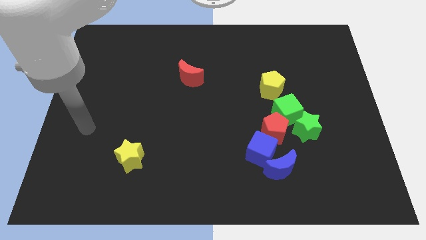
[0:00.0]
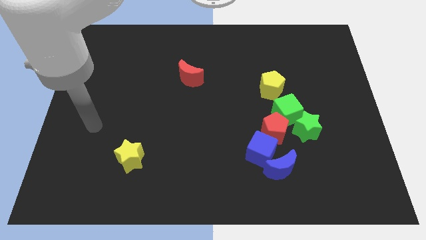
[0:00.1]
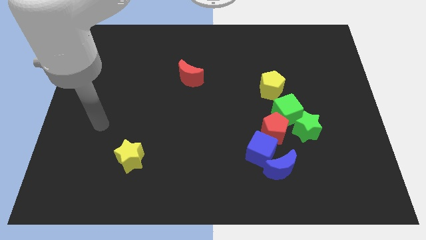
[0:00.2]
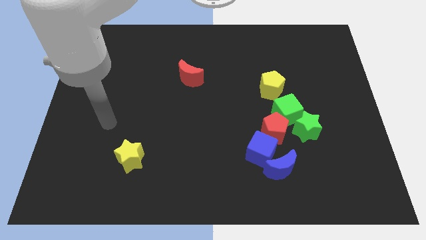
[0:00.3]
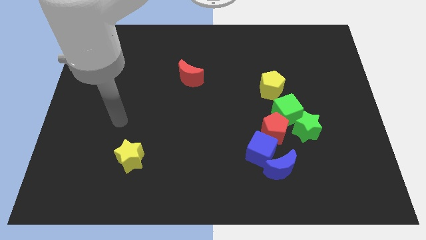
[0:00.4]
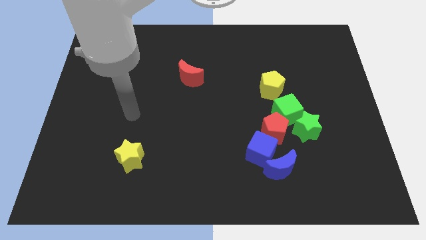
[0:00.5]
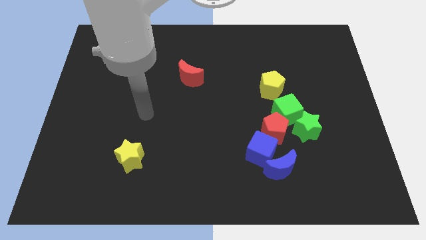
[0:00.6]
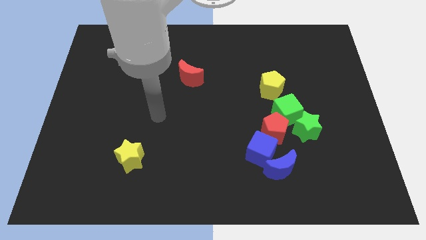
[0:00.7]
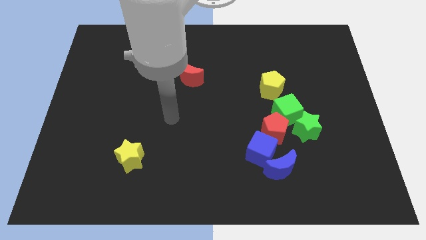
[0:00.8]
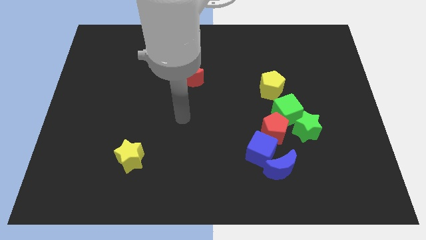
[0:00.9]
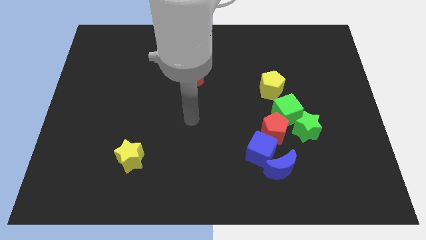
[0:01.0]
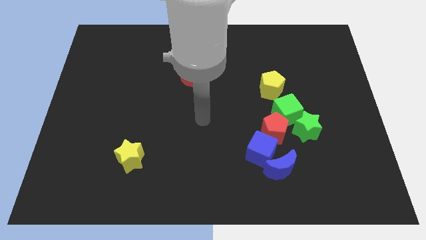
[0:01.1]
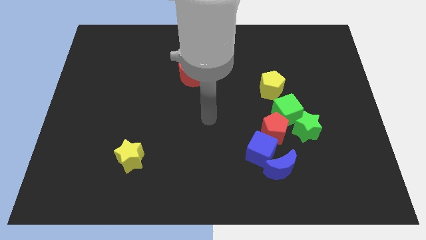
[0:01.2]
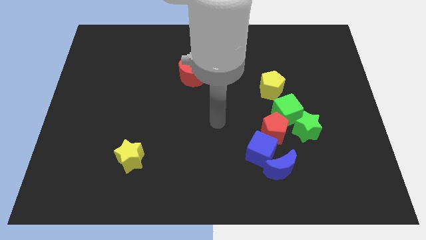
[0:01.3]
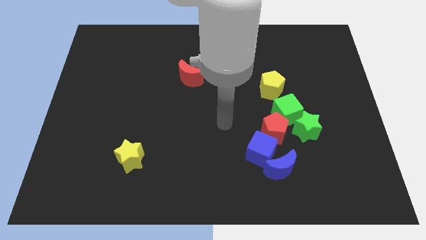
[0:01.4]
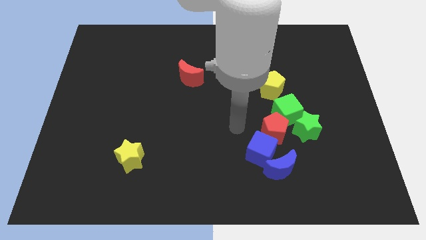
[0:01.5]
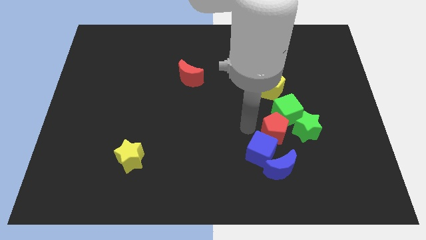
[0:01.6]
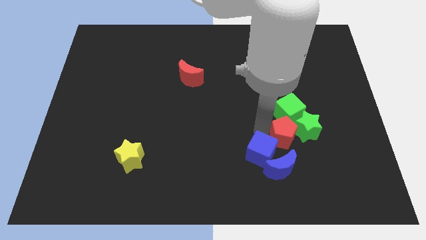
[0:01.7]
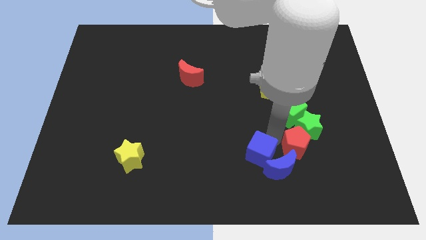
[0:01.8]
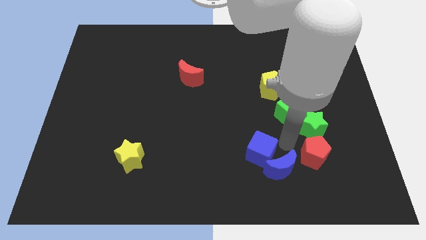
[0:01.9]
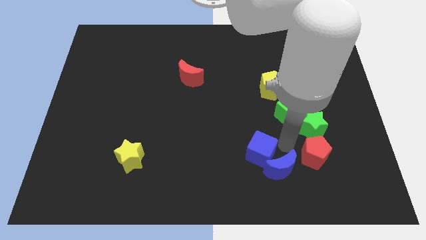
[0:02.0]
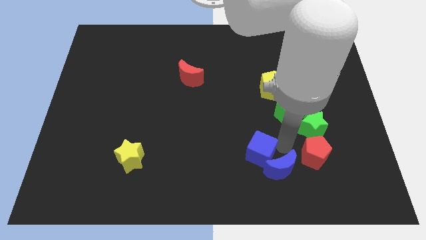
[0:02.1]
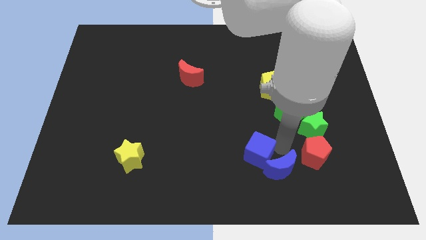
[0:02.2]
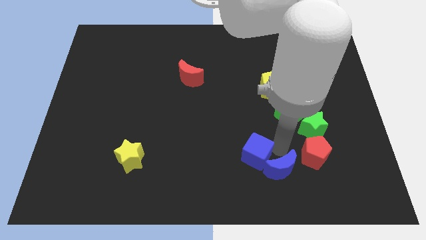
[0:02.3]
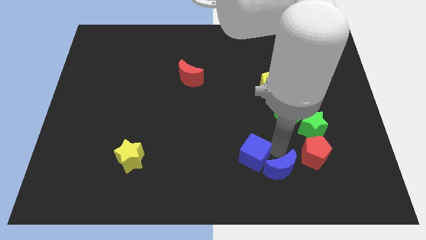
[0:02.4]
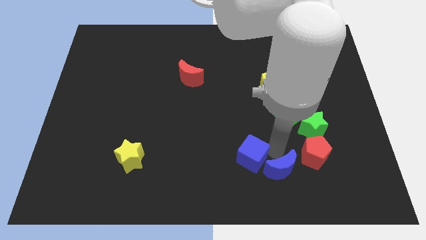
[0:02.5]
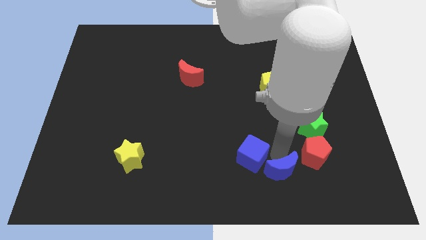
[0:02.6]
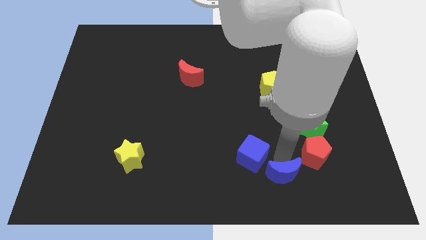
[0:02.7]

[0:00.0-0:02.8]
pull the blue cube apart from the blue moon and red pentagon

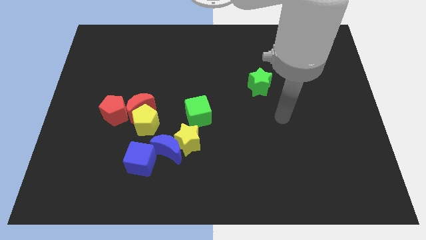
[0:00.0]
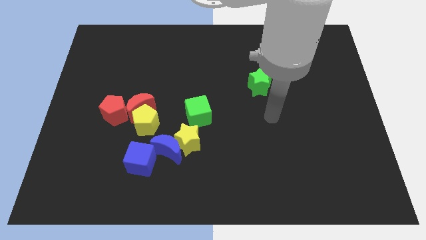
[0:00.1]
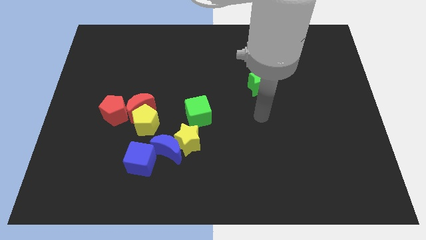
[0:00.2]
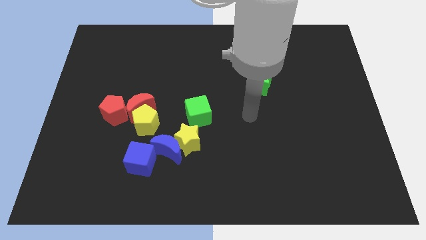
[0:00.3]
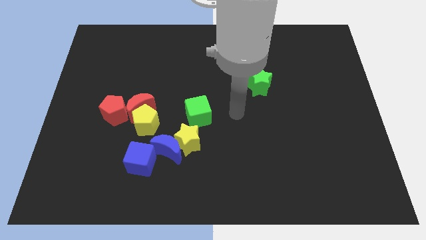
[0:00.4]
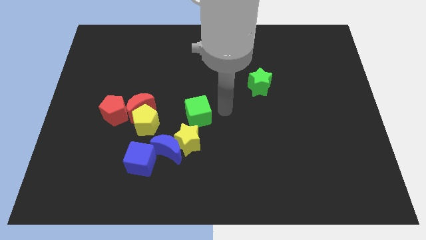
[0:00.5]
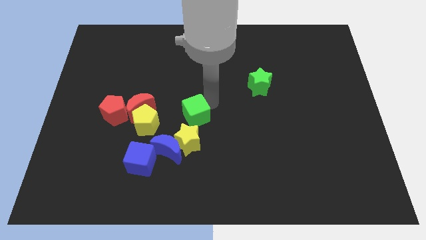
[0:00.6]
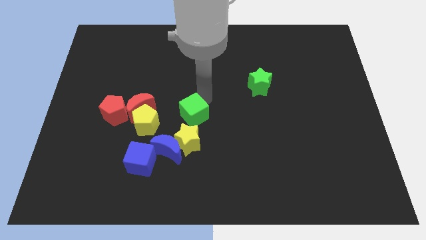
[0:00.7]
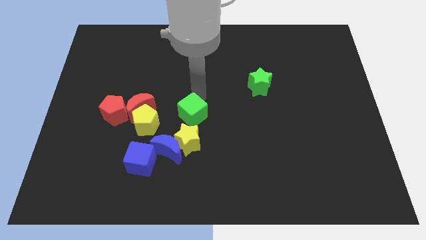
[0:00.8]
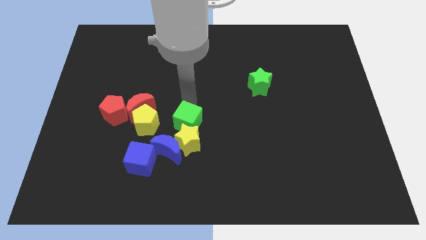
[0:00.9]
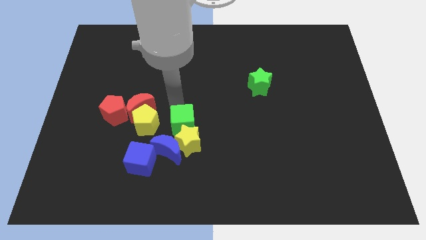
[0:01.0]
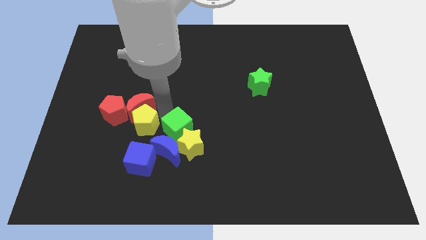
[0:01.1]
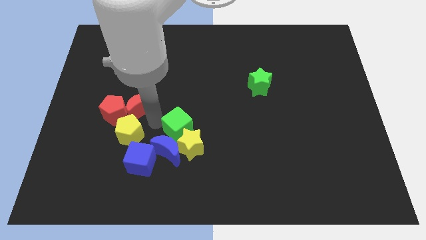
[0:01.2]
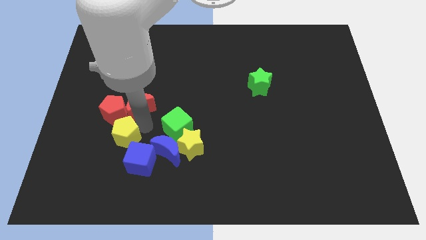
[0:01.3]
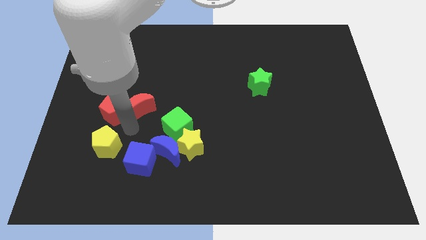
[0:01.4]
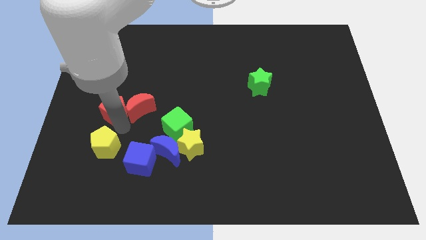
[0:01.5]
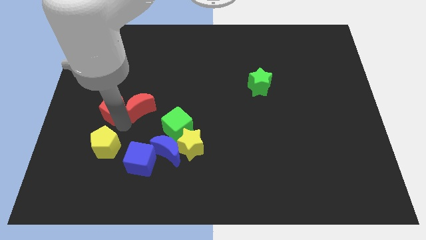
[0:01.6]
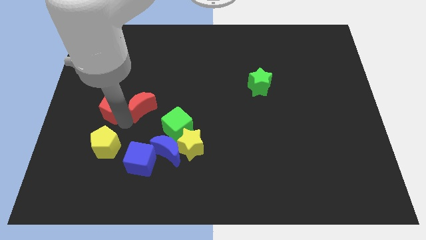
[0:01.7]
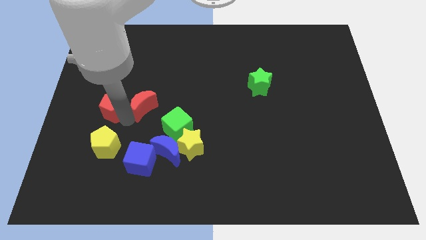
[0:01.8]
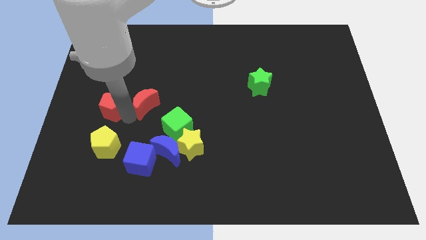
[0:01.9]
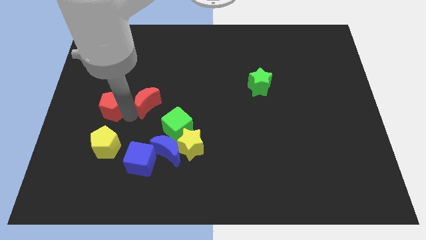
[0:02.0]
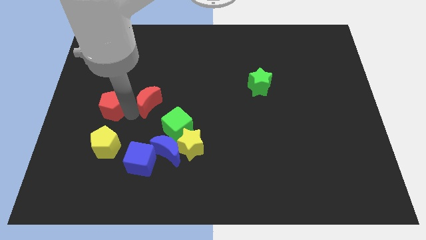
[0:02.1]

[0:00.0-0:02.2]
pull the red moon apart from the yellow pentagon and red pentagon

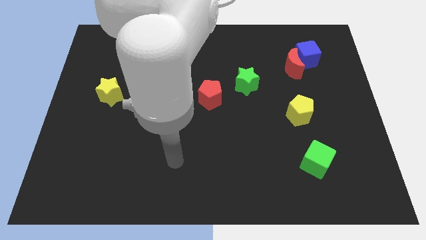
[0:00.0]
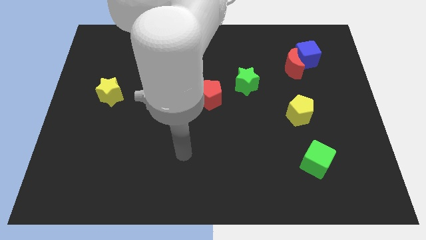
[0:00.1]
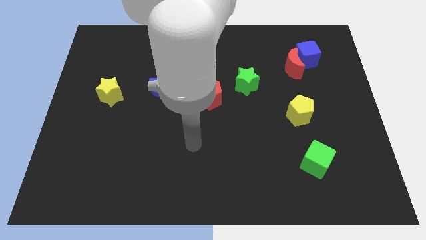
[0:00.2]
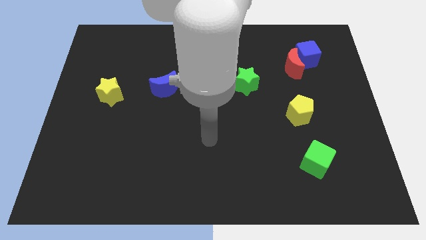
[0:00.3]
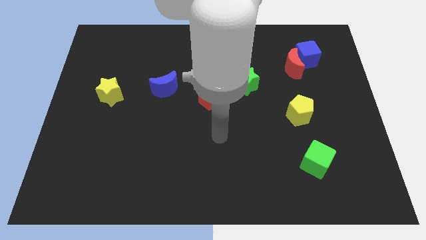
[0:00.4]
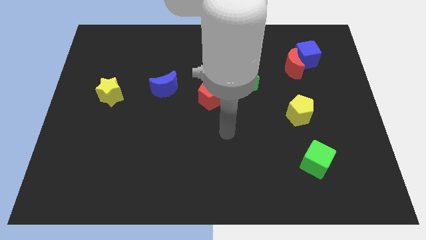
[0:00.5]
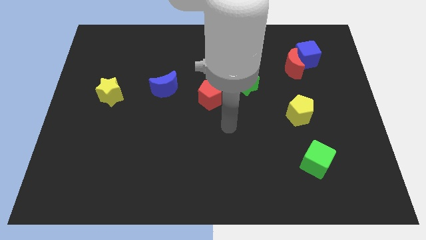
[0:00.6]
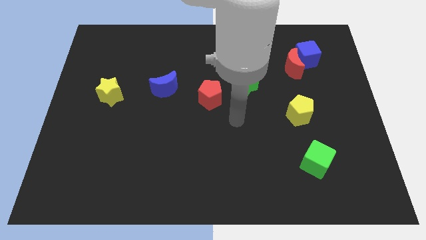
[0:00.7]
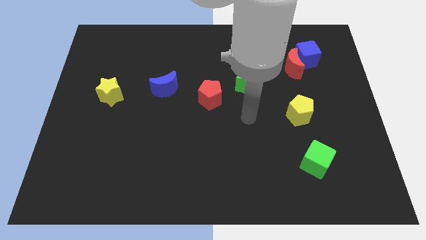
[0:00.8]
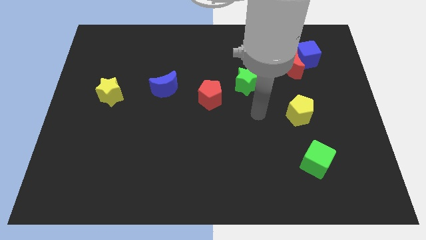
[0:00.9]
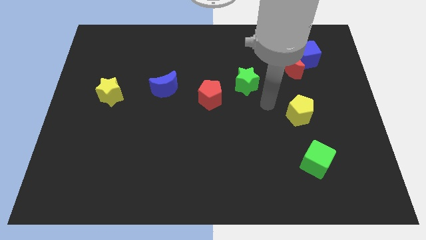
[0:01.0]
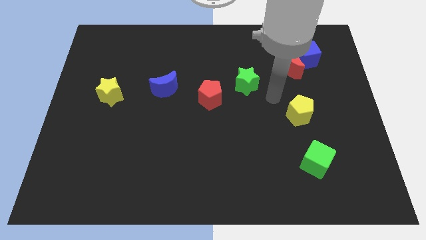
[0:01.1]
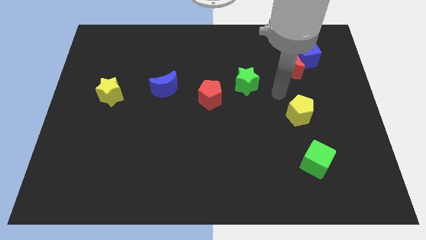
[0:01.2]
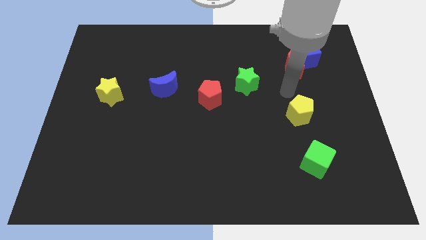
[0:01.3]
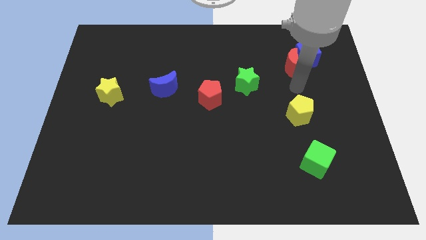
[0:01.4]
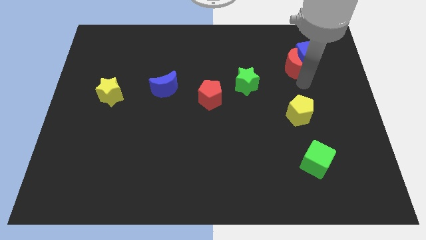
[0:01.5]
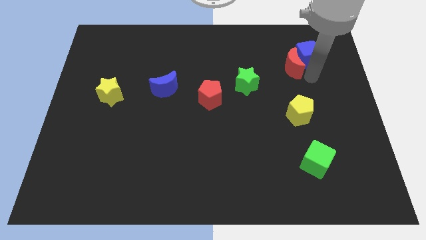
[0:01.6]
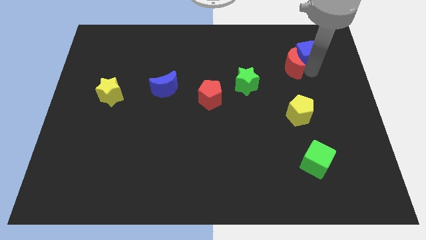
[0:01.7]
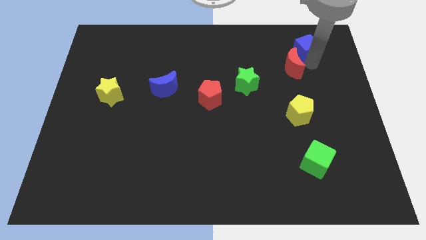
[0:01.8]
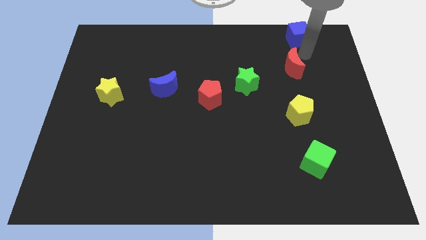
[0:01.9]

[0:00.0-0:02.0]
move the red moon away from the blue cube

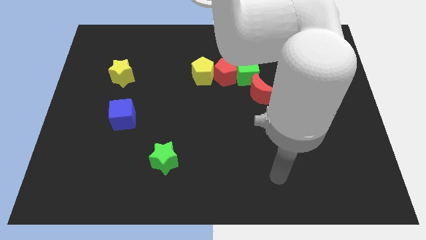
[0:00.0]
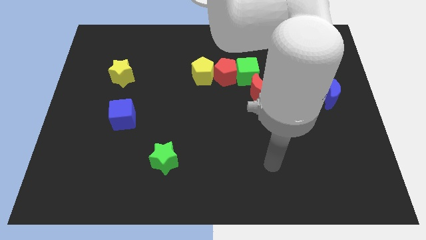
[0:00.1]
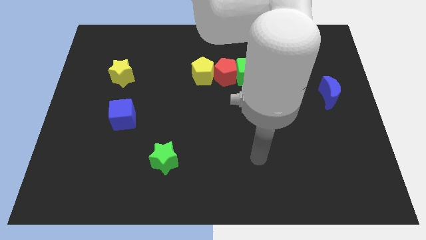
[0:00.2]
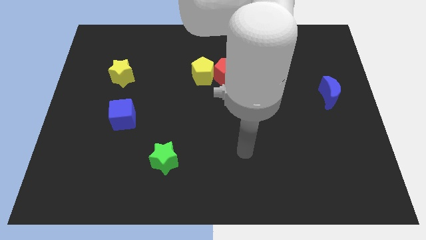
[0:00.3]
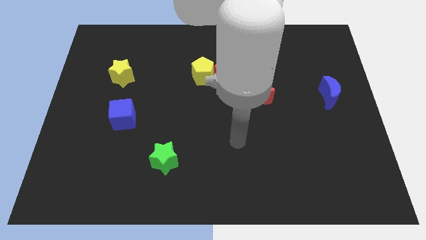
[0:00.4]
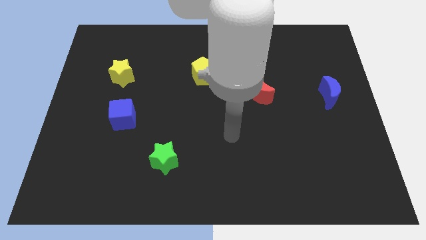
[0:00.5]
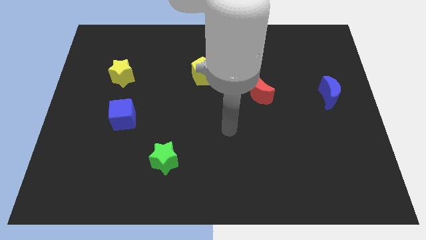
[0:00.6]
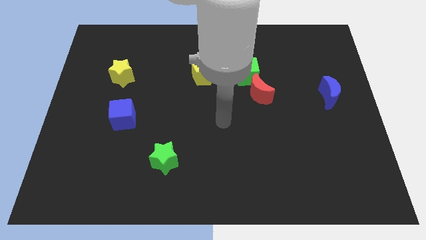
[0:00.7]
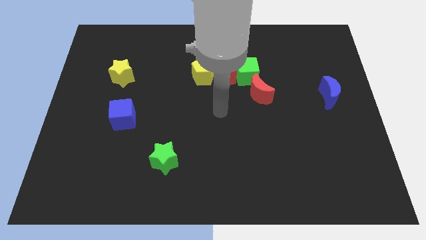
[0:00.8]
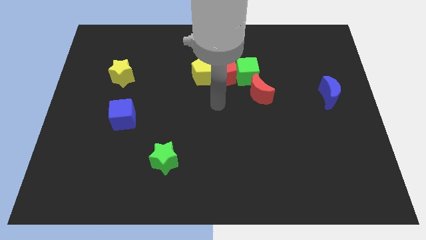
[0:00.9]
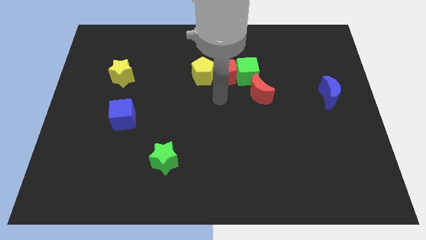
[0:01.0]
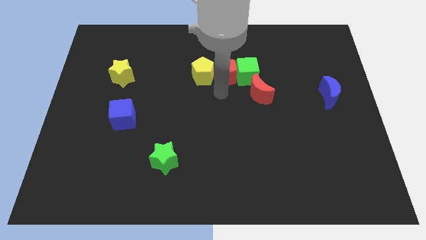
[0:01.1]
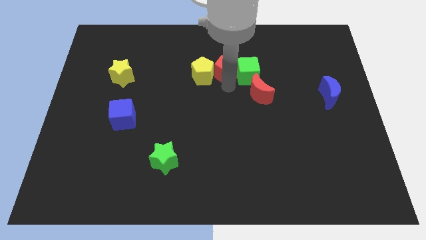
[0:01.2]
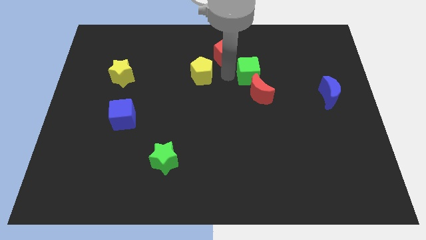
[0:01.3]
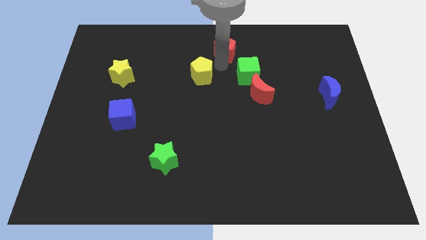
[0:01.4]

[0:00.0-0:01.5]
separate the yellow pentagon from the red pentagon

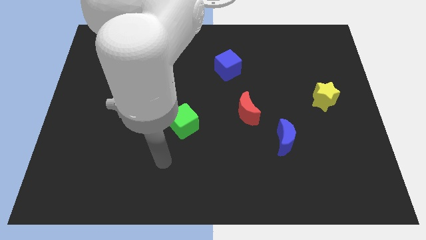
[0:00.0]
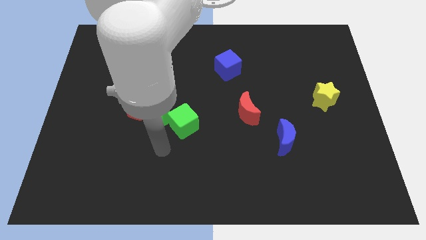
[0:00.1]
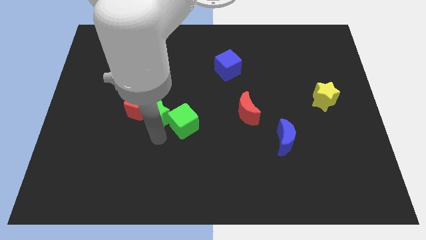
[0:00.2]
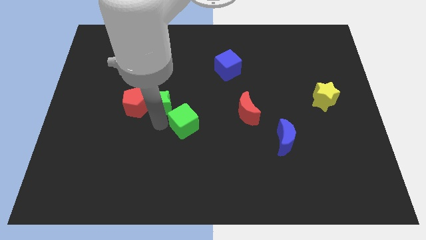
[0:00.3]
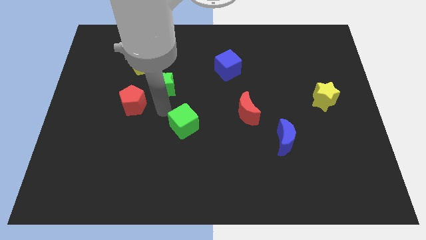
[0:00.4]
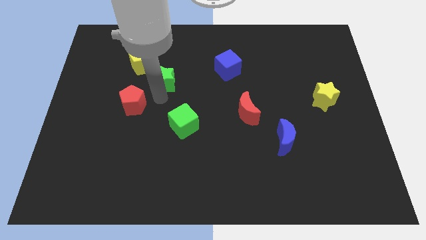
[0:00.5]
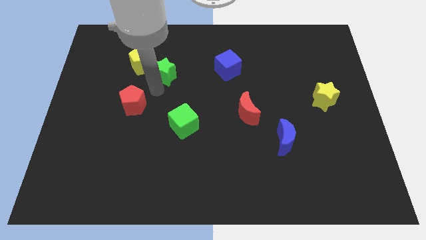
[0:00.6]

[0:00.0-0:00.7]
separate the red pentagon from the green star

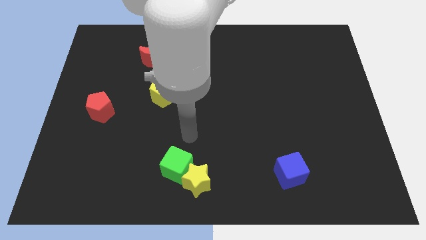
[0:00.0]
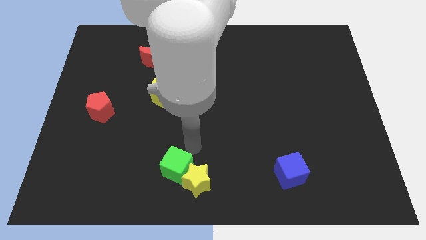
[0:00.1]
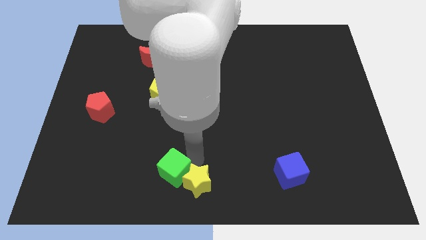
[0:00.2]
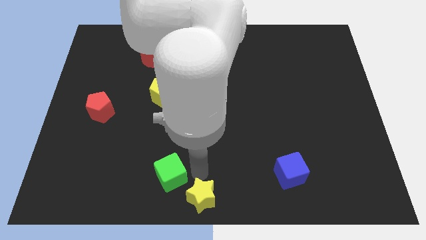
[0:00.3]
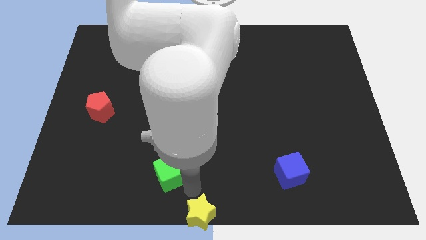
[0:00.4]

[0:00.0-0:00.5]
separate the green cube from the yellow star
